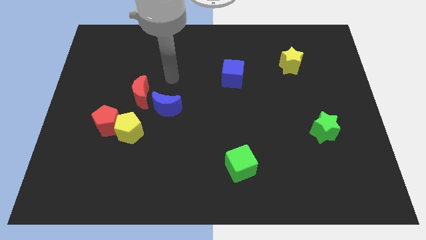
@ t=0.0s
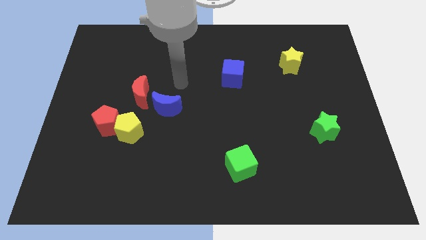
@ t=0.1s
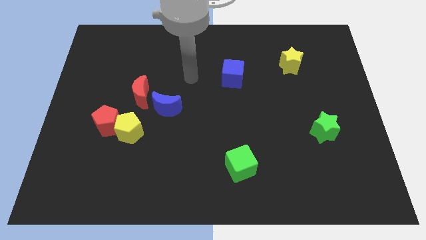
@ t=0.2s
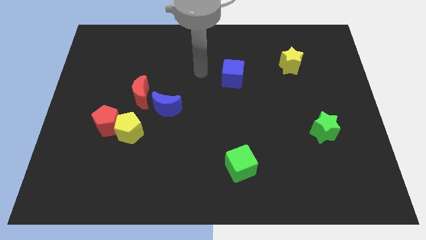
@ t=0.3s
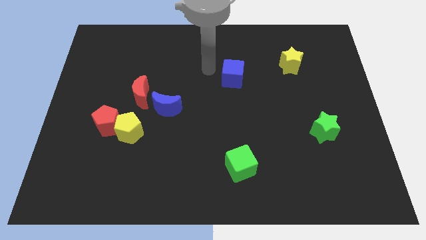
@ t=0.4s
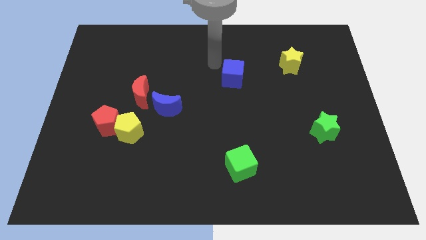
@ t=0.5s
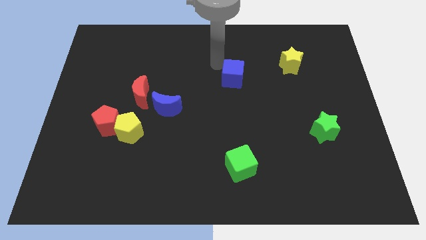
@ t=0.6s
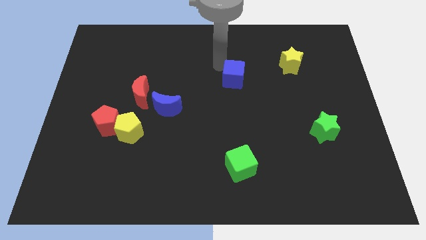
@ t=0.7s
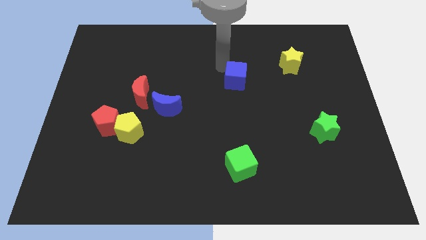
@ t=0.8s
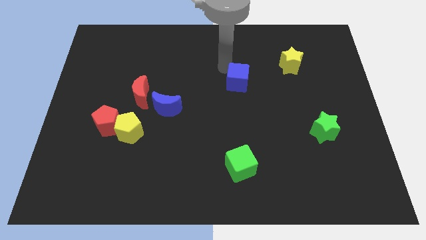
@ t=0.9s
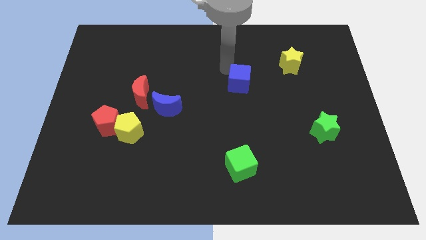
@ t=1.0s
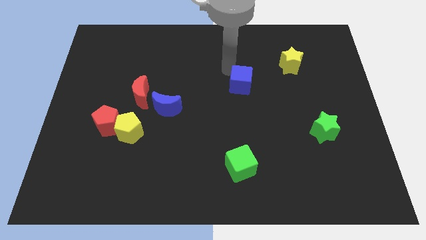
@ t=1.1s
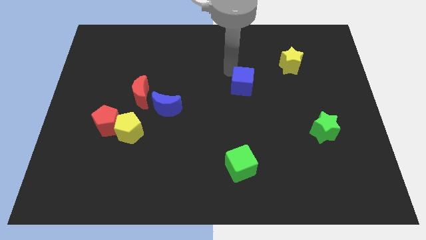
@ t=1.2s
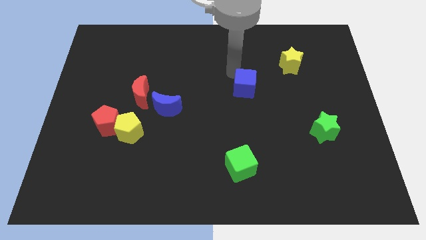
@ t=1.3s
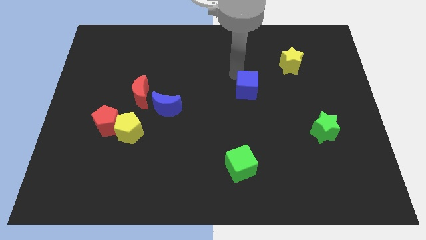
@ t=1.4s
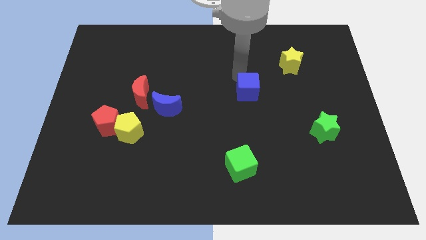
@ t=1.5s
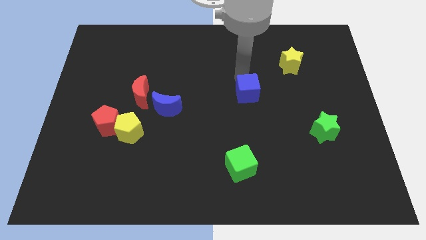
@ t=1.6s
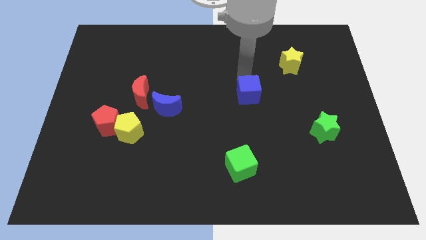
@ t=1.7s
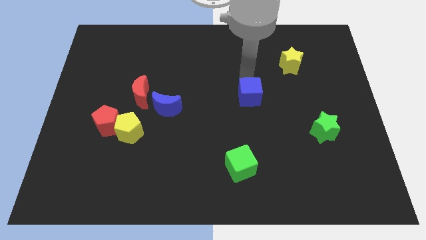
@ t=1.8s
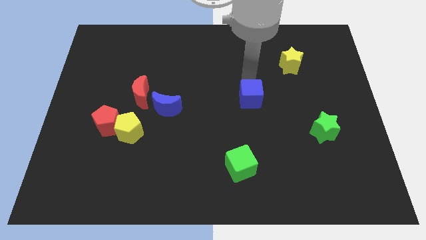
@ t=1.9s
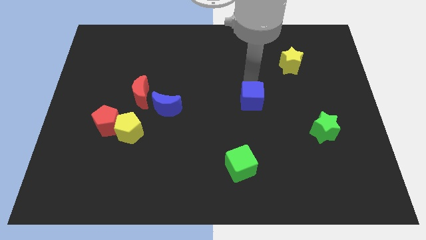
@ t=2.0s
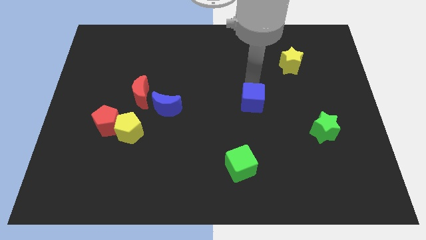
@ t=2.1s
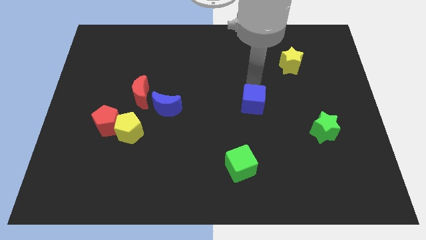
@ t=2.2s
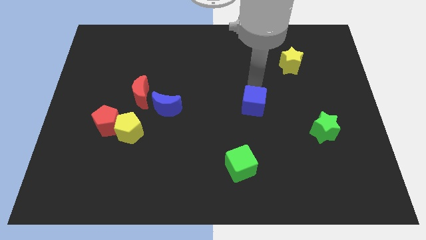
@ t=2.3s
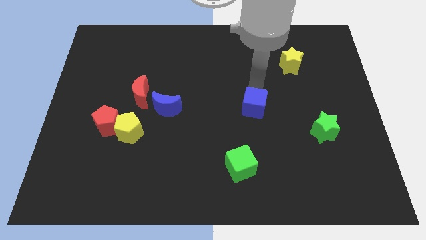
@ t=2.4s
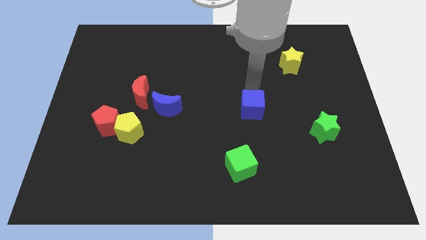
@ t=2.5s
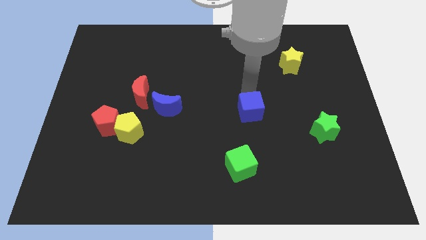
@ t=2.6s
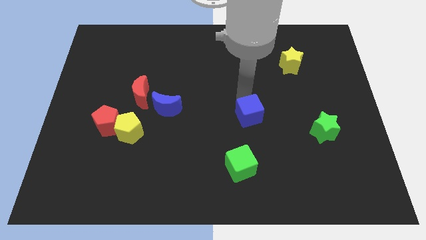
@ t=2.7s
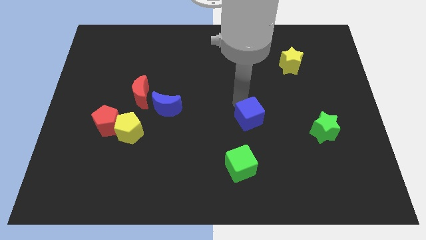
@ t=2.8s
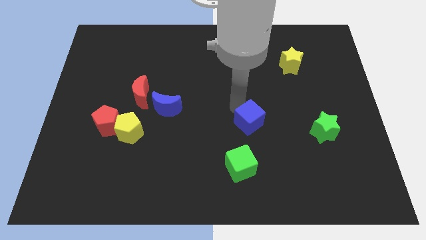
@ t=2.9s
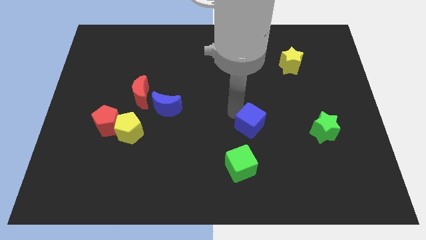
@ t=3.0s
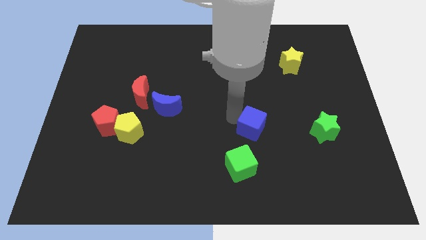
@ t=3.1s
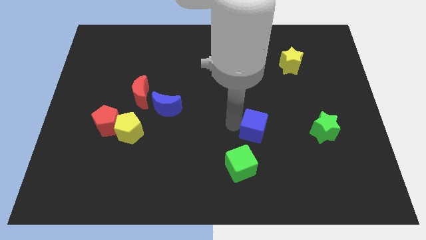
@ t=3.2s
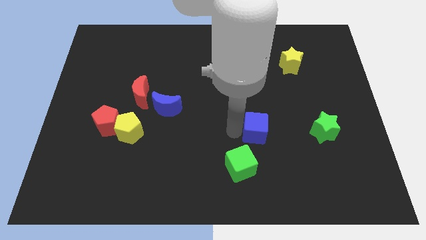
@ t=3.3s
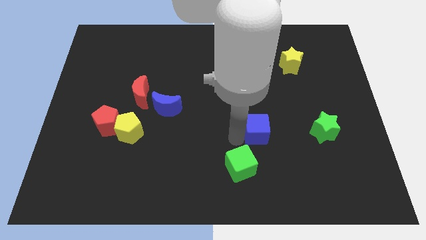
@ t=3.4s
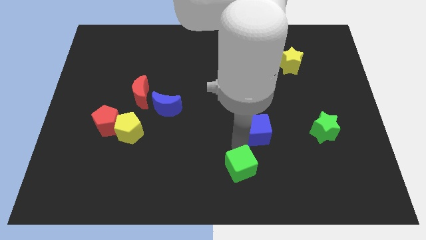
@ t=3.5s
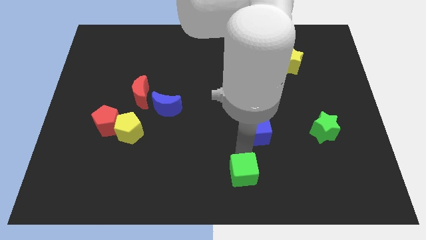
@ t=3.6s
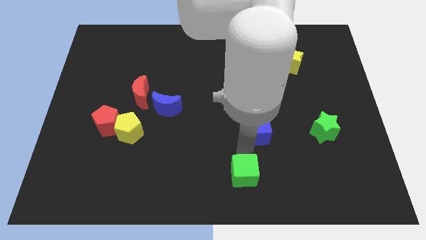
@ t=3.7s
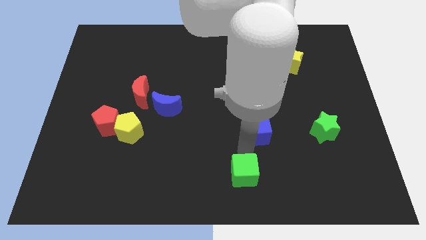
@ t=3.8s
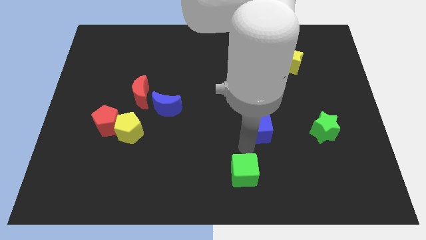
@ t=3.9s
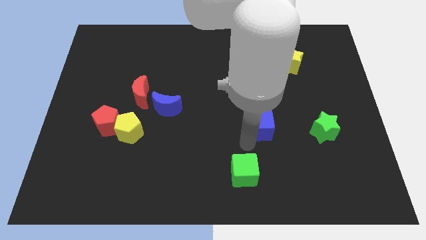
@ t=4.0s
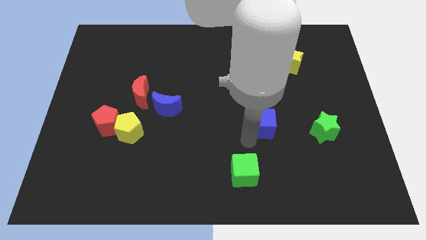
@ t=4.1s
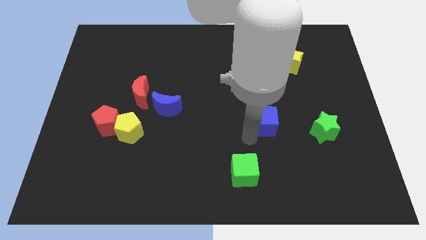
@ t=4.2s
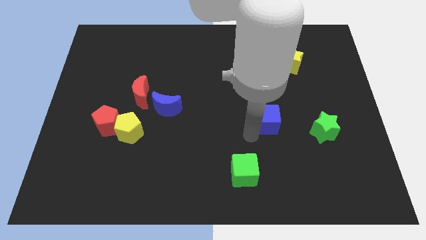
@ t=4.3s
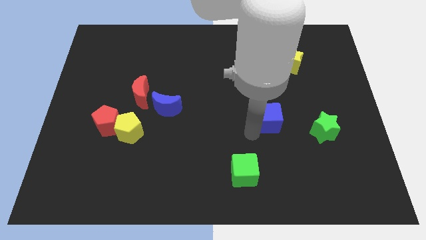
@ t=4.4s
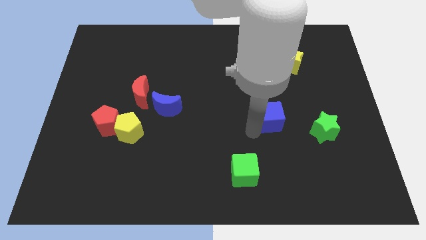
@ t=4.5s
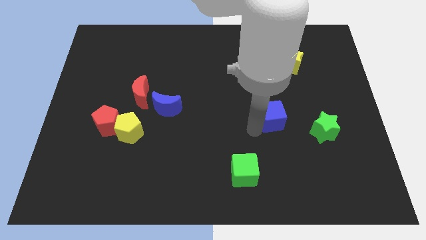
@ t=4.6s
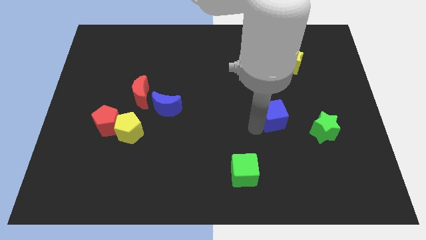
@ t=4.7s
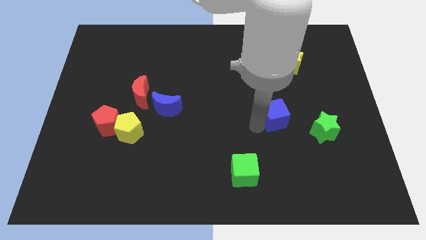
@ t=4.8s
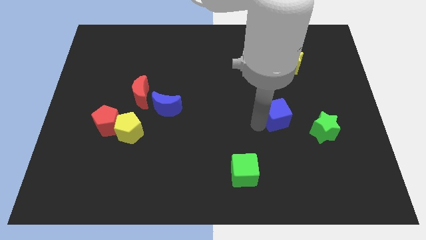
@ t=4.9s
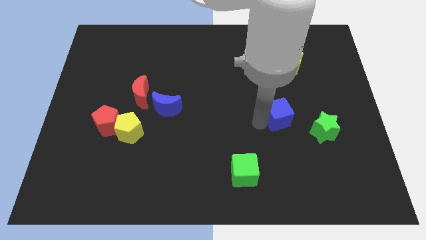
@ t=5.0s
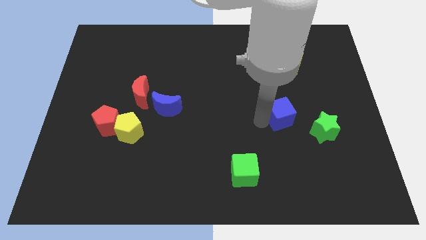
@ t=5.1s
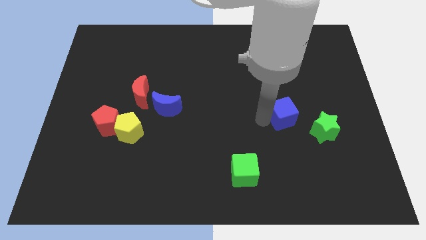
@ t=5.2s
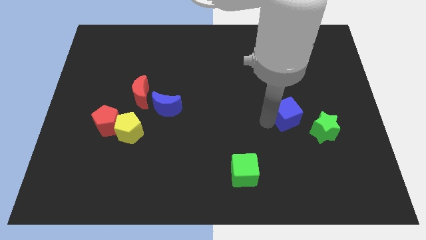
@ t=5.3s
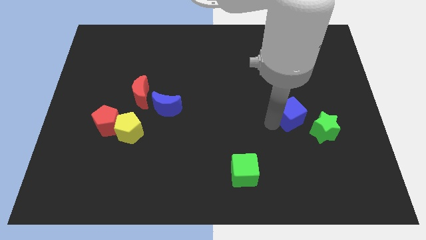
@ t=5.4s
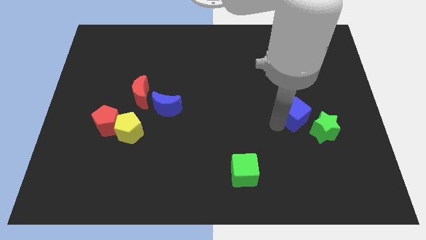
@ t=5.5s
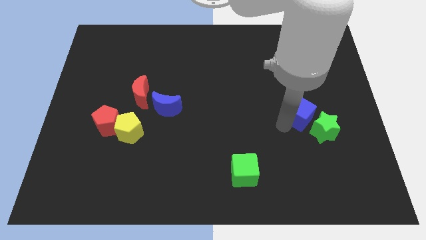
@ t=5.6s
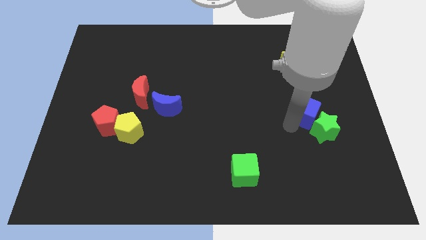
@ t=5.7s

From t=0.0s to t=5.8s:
slide the blue cube down and then right

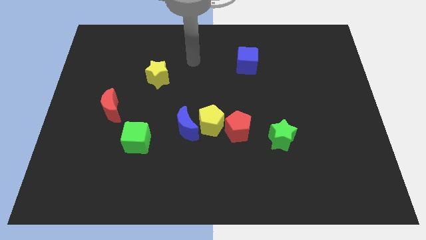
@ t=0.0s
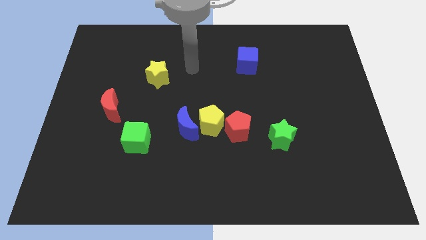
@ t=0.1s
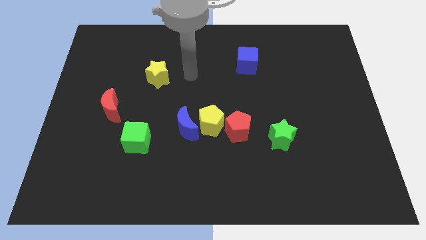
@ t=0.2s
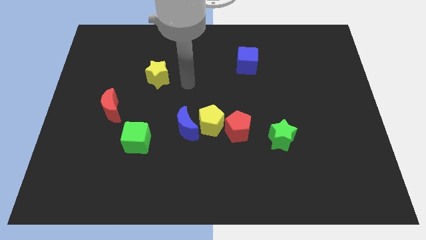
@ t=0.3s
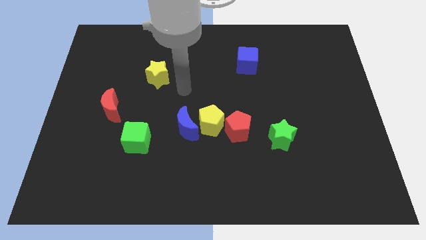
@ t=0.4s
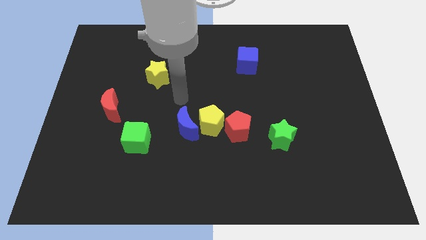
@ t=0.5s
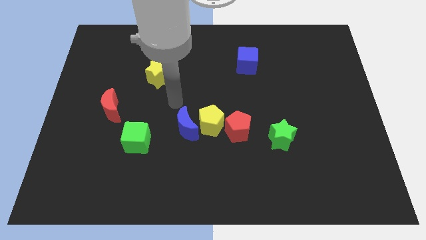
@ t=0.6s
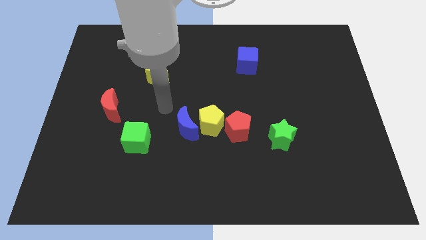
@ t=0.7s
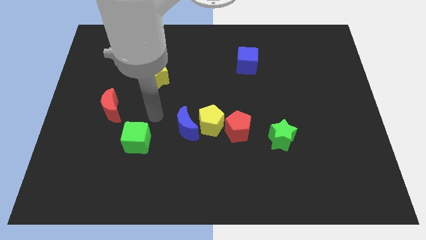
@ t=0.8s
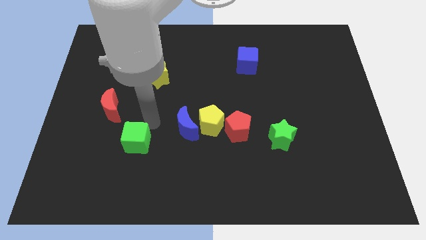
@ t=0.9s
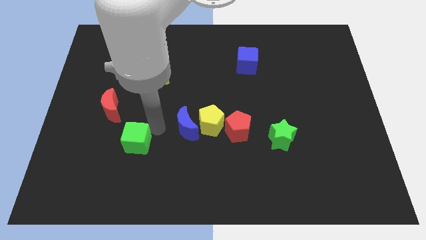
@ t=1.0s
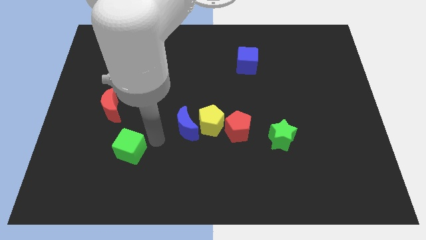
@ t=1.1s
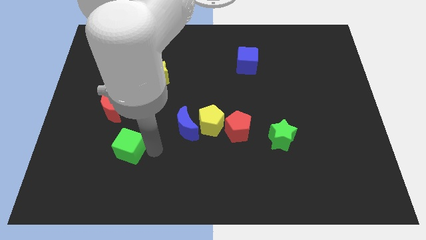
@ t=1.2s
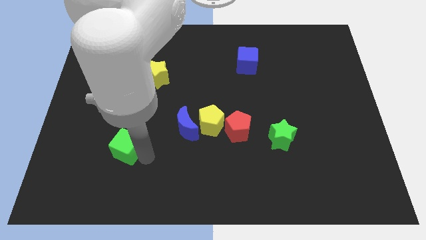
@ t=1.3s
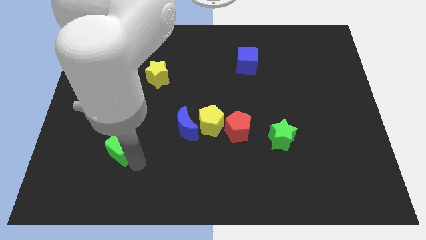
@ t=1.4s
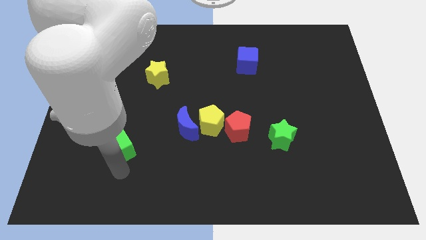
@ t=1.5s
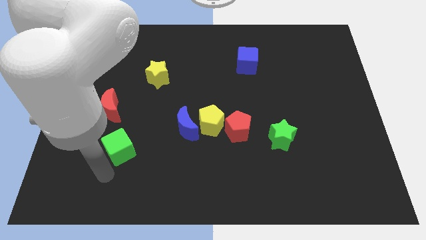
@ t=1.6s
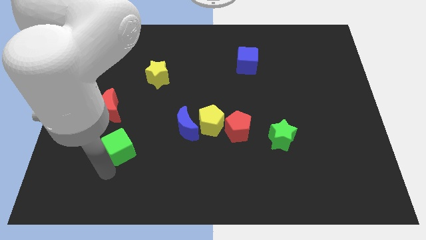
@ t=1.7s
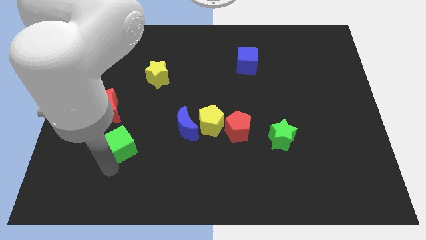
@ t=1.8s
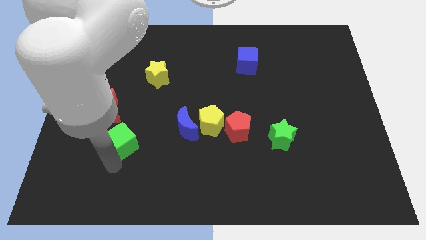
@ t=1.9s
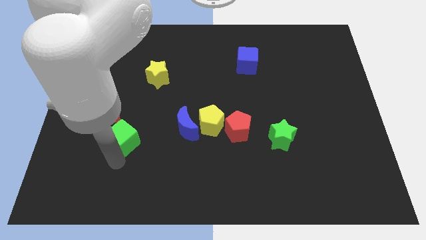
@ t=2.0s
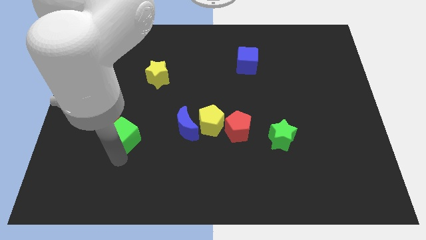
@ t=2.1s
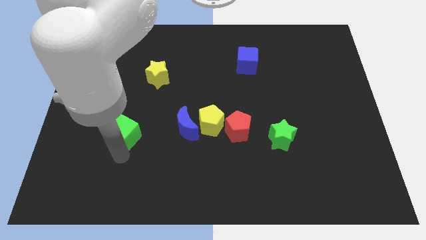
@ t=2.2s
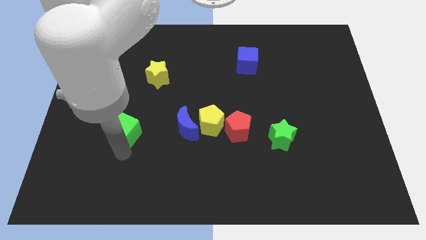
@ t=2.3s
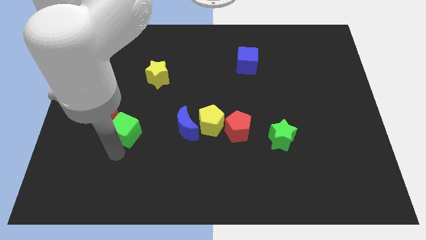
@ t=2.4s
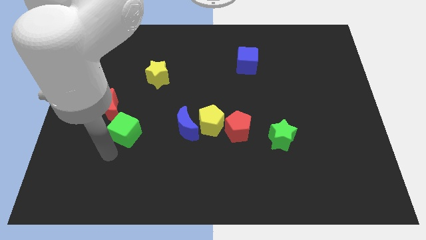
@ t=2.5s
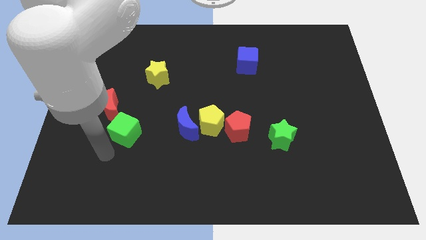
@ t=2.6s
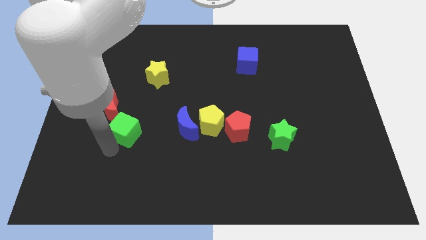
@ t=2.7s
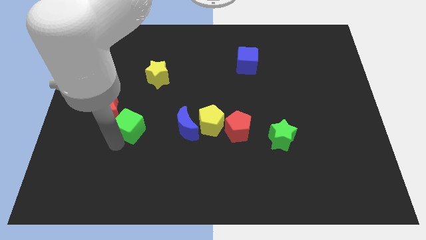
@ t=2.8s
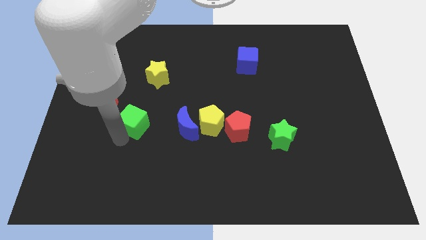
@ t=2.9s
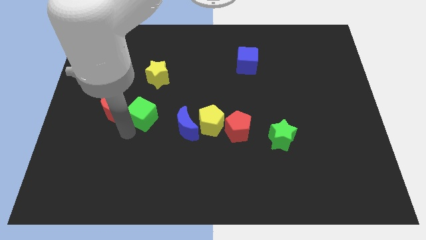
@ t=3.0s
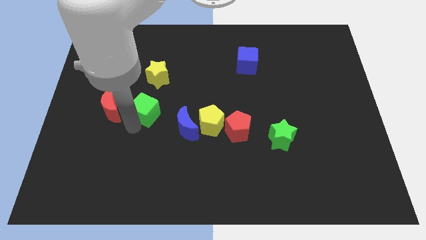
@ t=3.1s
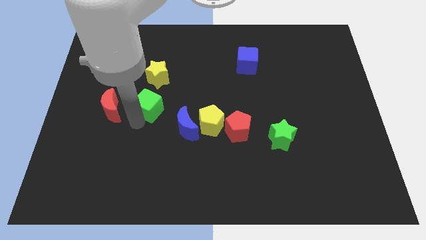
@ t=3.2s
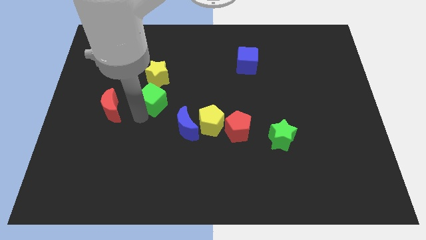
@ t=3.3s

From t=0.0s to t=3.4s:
push the green cube diagonally up and to the right a bit
